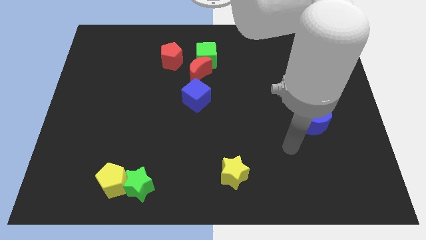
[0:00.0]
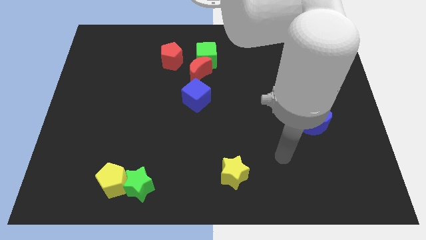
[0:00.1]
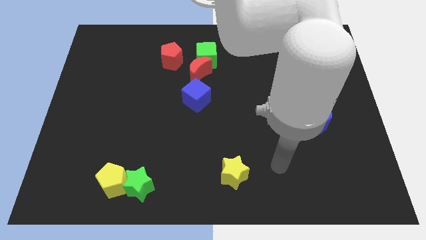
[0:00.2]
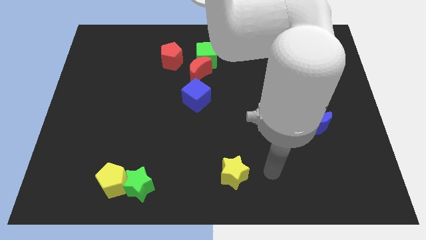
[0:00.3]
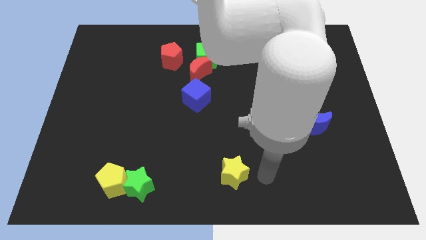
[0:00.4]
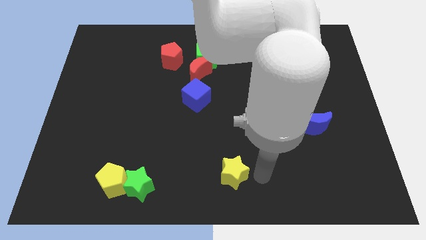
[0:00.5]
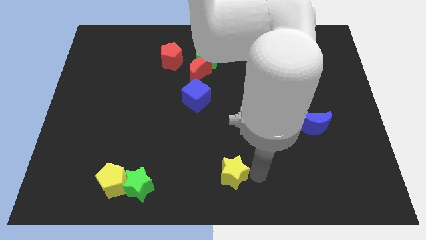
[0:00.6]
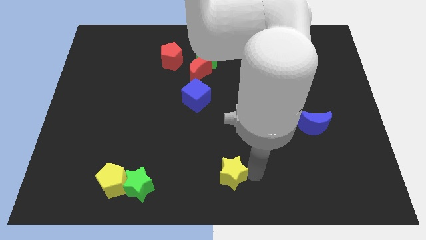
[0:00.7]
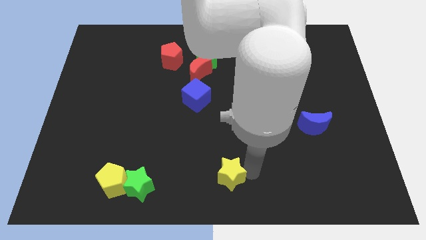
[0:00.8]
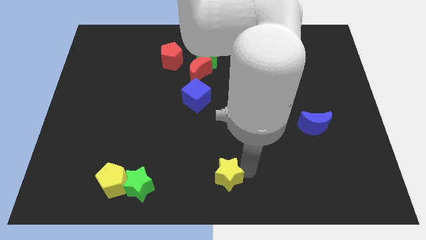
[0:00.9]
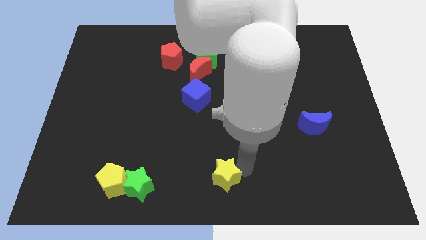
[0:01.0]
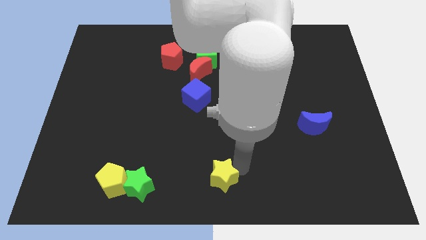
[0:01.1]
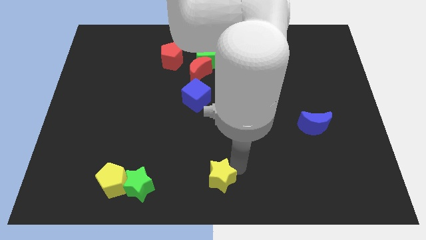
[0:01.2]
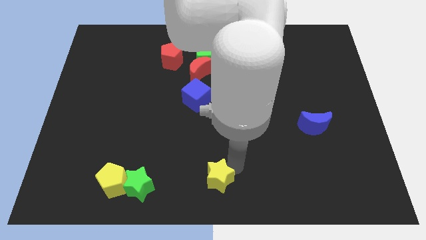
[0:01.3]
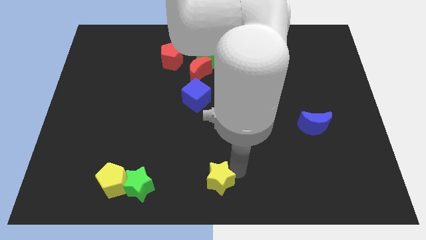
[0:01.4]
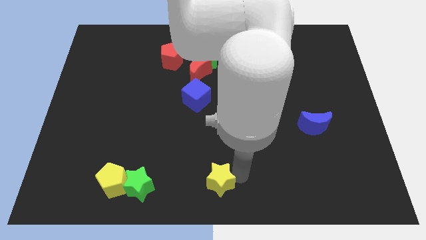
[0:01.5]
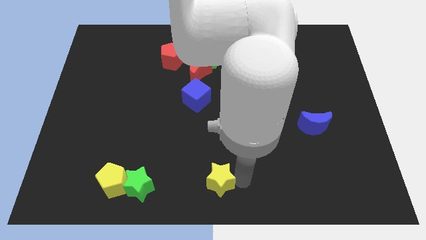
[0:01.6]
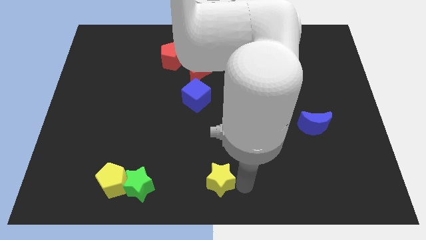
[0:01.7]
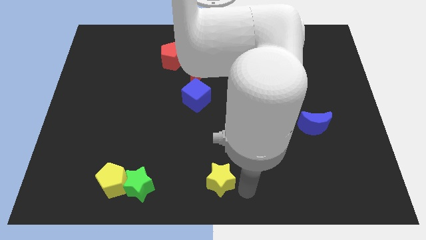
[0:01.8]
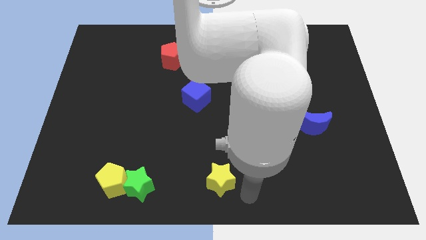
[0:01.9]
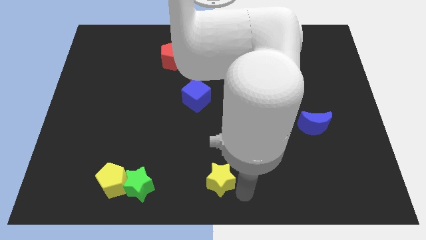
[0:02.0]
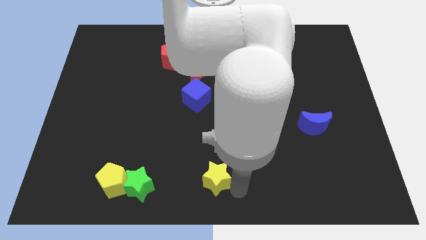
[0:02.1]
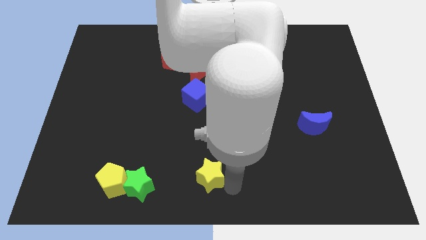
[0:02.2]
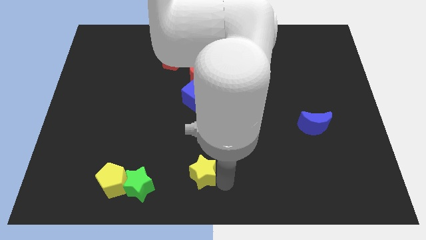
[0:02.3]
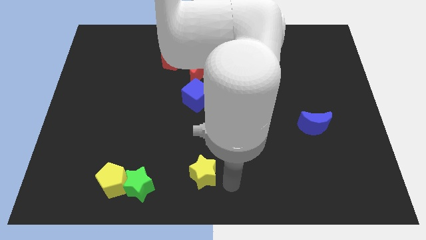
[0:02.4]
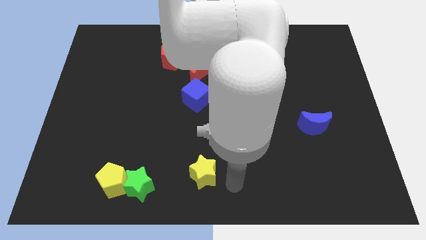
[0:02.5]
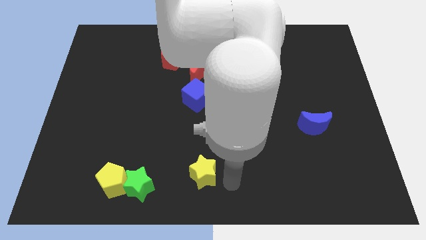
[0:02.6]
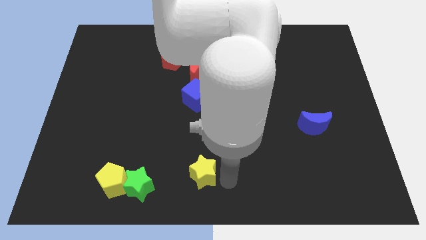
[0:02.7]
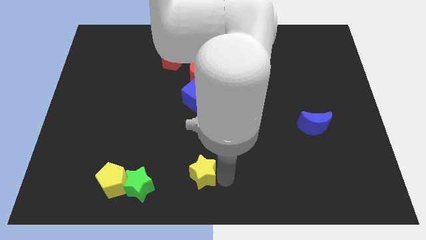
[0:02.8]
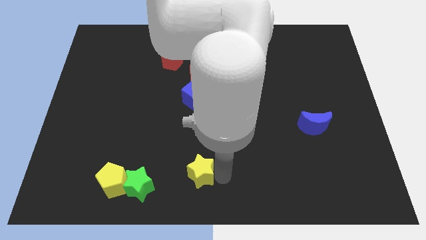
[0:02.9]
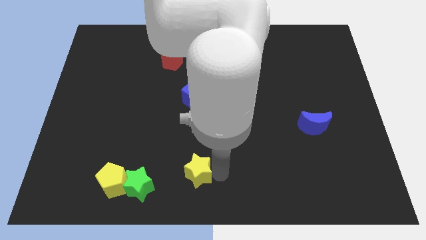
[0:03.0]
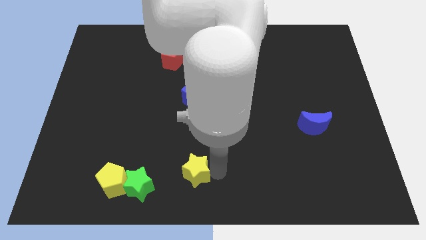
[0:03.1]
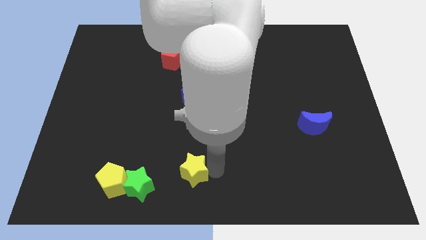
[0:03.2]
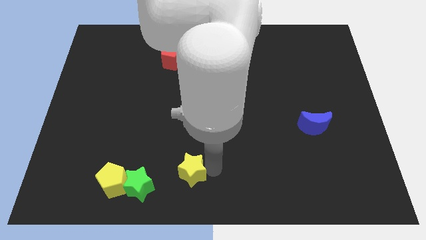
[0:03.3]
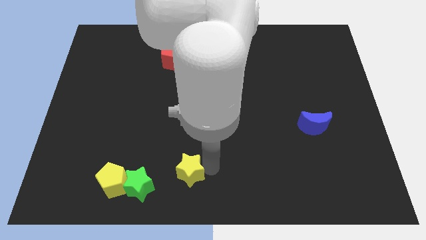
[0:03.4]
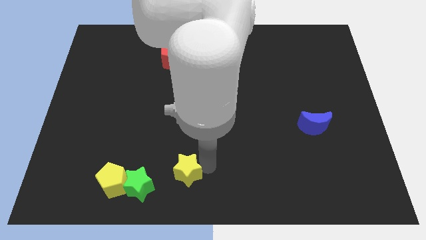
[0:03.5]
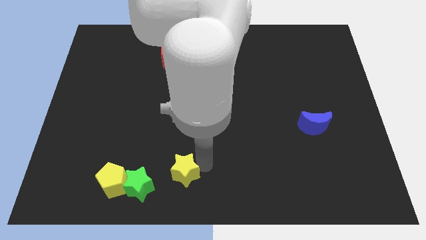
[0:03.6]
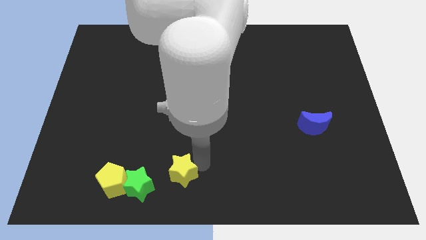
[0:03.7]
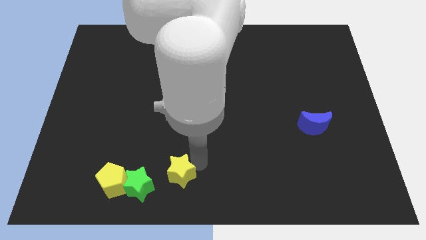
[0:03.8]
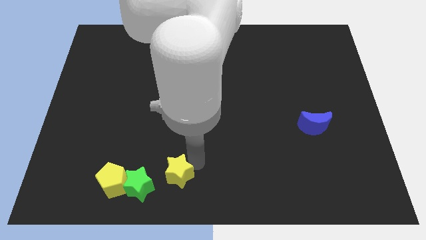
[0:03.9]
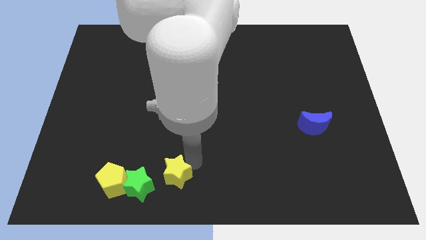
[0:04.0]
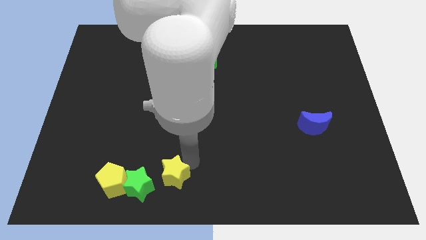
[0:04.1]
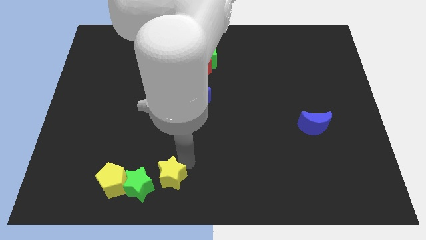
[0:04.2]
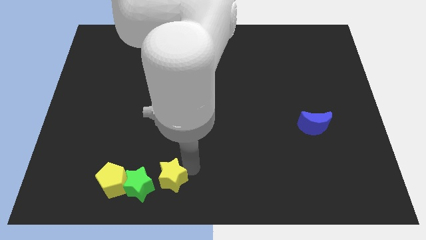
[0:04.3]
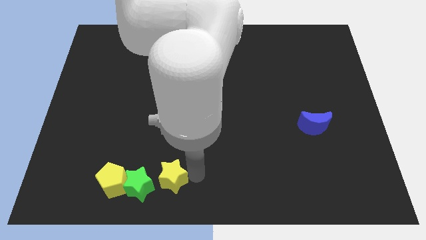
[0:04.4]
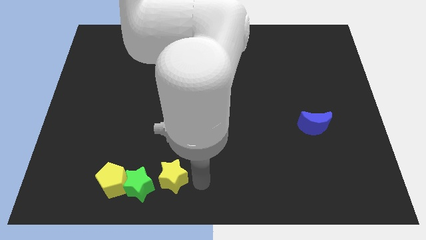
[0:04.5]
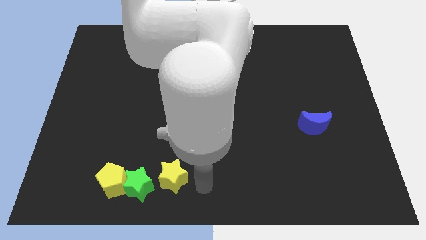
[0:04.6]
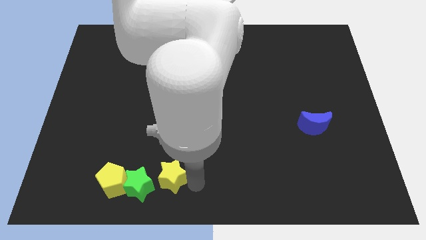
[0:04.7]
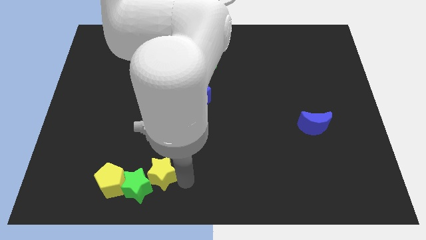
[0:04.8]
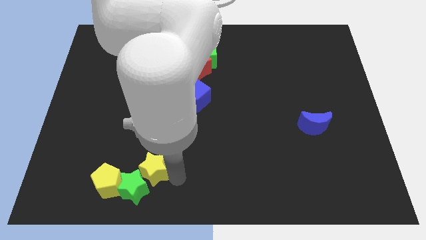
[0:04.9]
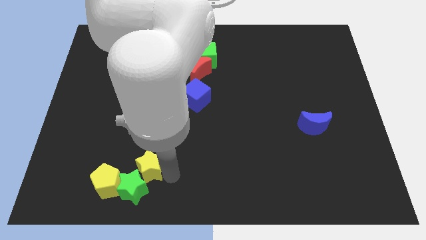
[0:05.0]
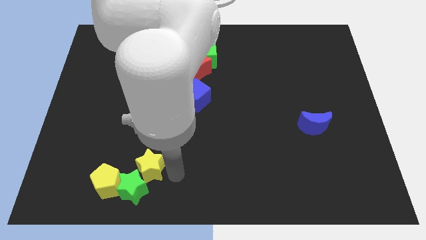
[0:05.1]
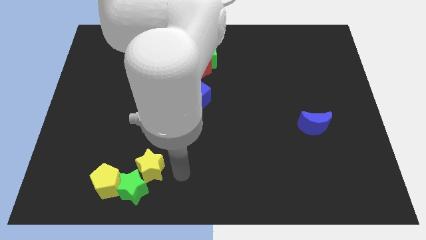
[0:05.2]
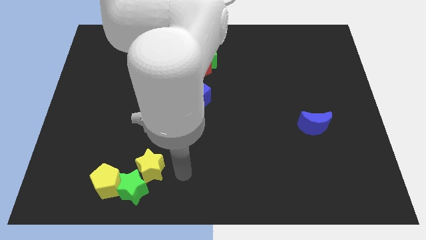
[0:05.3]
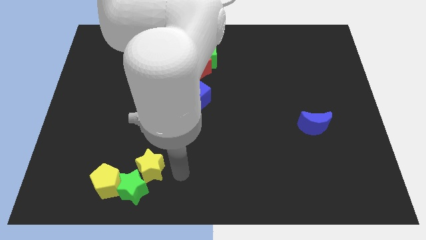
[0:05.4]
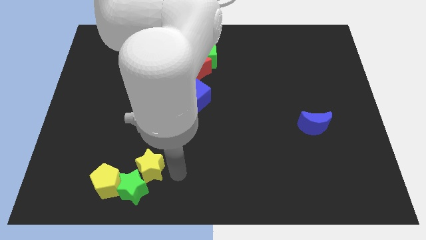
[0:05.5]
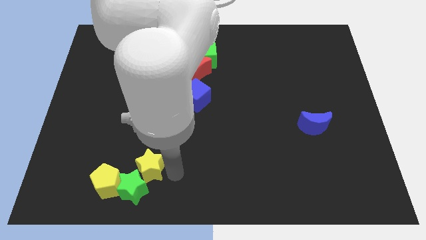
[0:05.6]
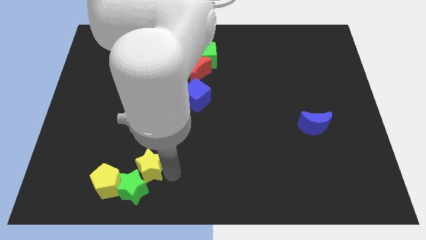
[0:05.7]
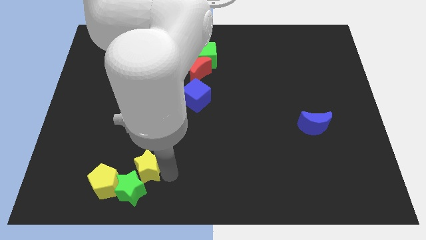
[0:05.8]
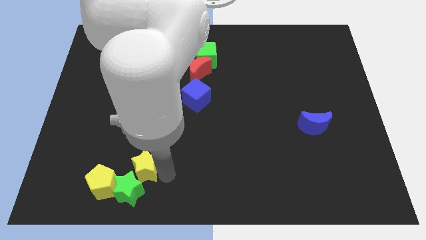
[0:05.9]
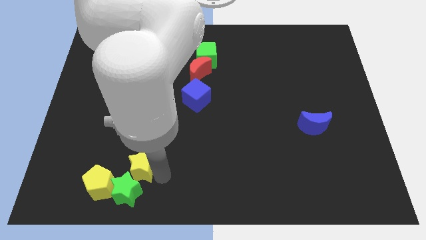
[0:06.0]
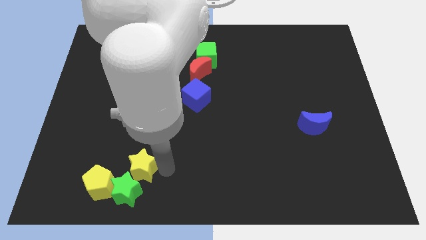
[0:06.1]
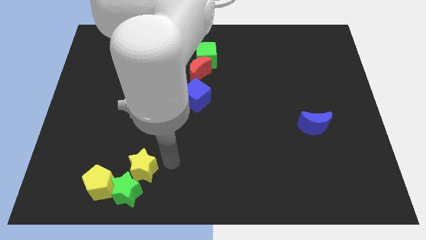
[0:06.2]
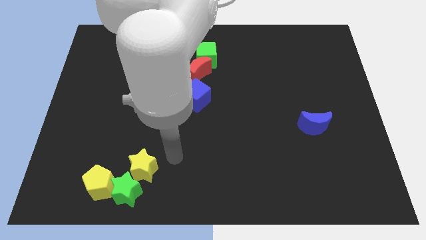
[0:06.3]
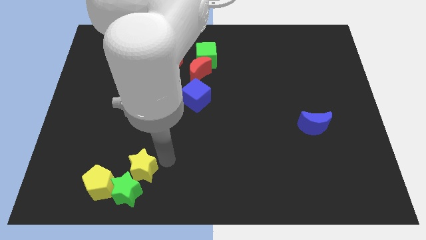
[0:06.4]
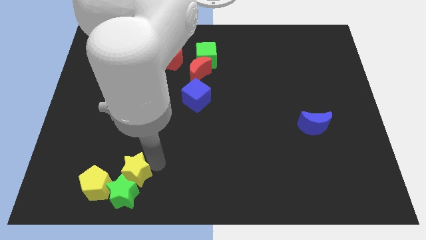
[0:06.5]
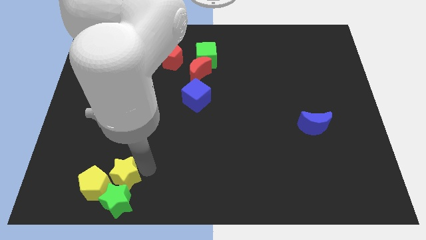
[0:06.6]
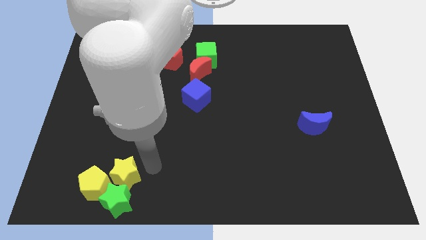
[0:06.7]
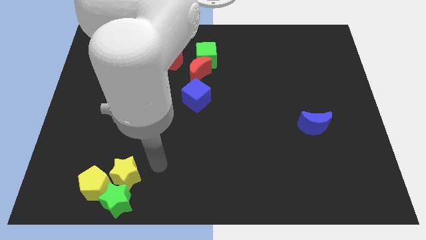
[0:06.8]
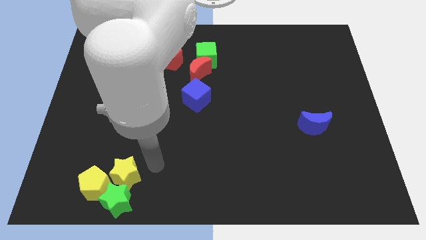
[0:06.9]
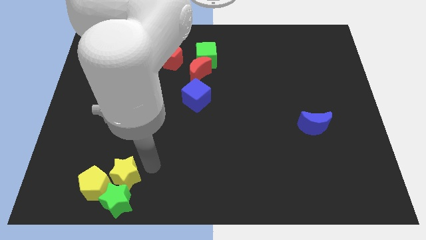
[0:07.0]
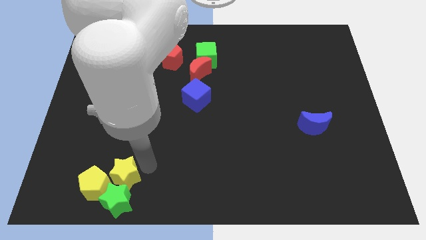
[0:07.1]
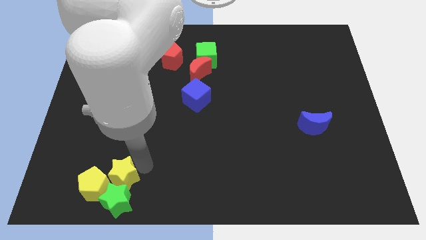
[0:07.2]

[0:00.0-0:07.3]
move the yellow star to the yellow pentagon
